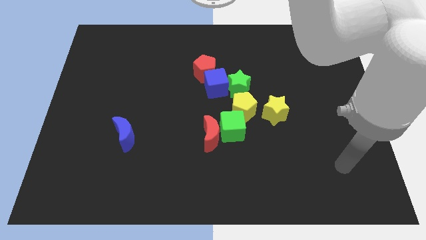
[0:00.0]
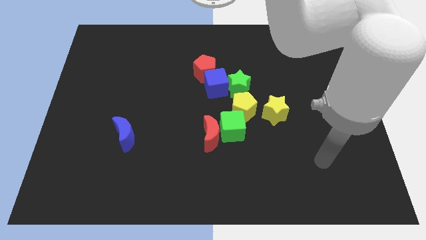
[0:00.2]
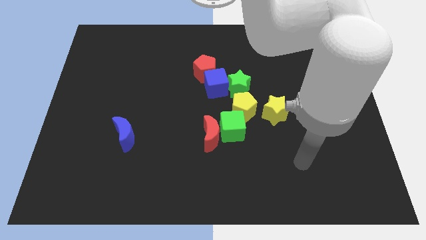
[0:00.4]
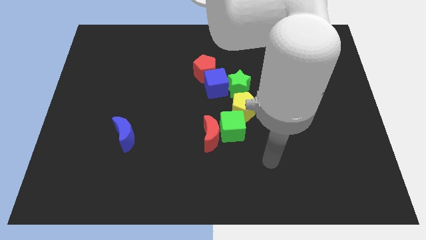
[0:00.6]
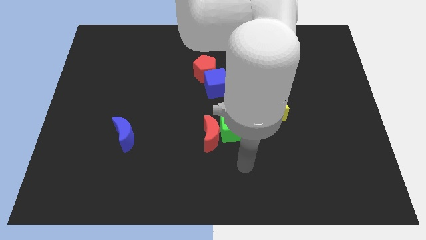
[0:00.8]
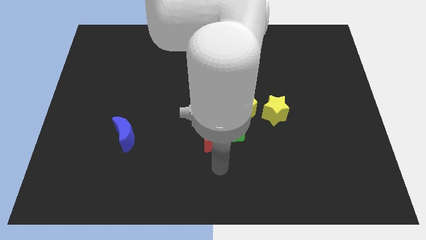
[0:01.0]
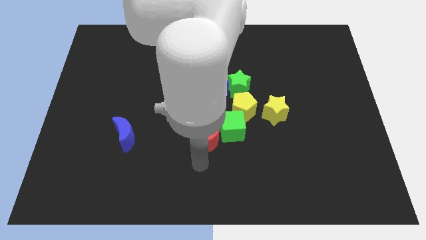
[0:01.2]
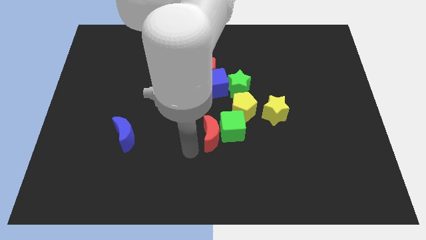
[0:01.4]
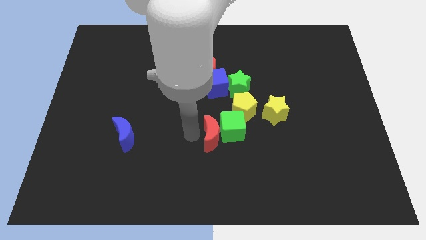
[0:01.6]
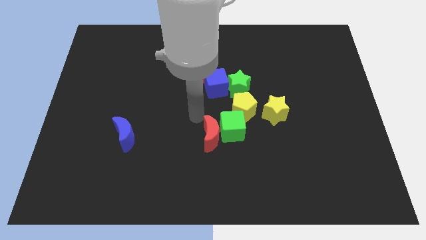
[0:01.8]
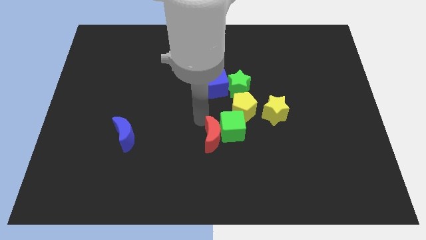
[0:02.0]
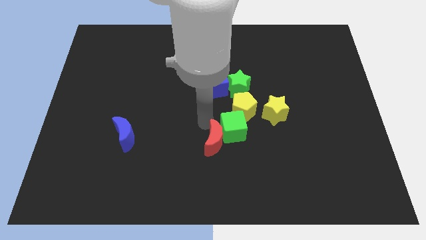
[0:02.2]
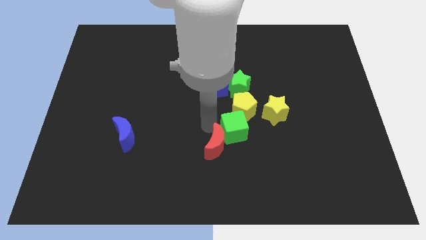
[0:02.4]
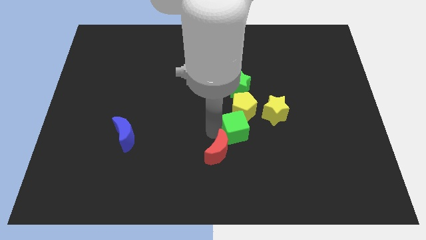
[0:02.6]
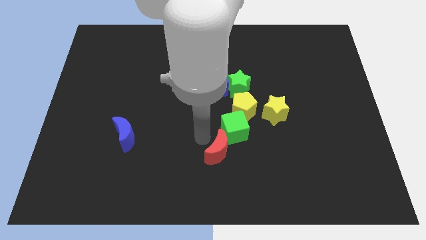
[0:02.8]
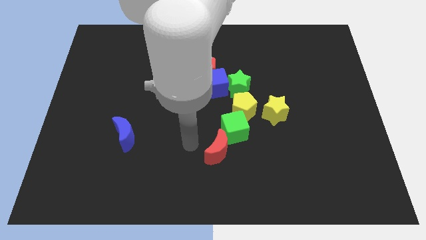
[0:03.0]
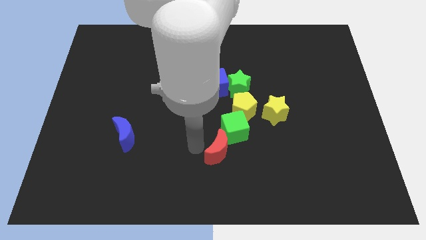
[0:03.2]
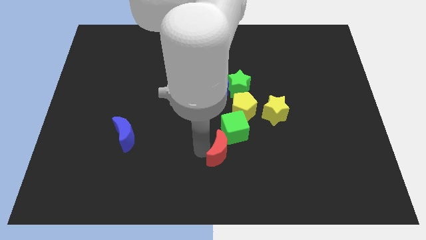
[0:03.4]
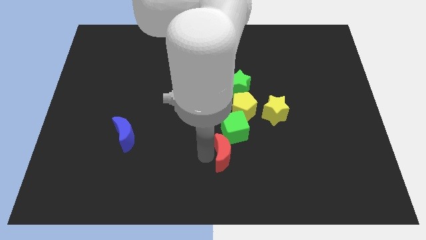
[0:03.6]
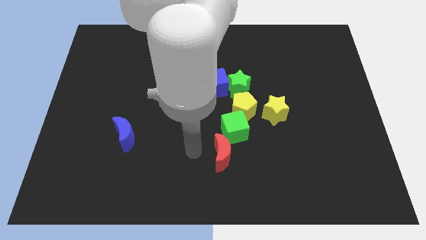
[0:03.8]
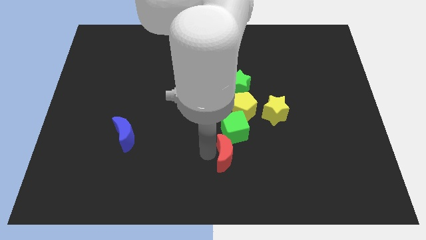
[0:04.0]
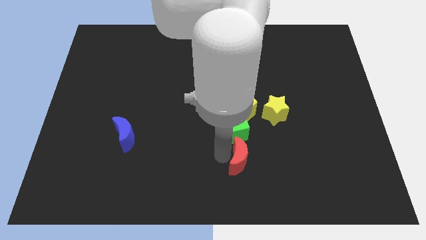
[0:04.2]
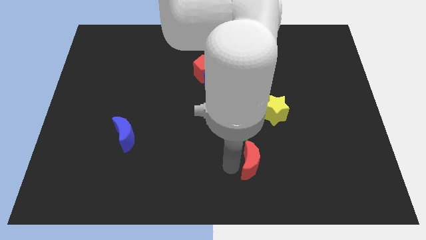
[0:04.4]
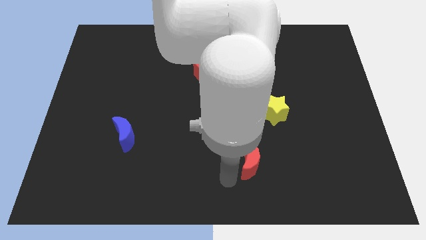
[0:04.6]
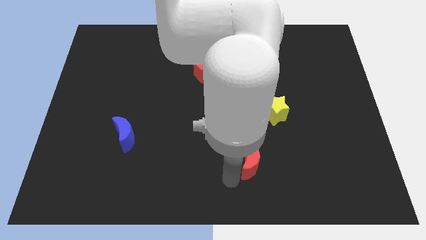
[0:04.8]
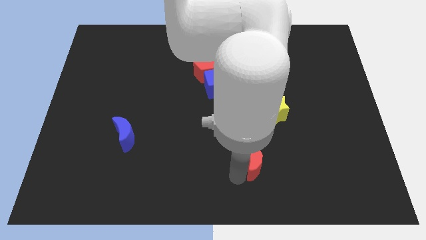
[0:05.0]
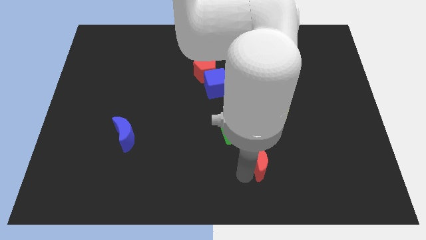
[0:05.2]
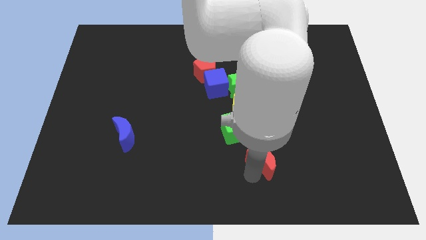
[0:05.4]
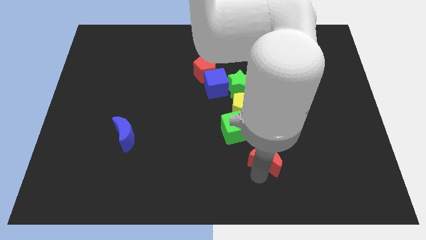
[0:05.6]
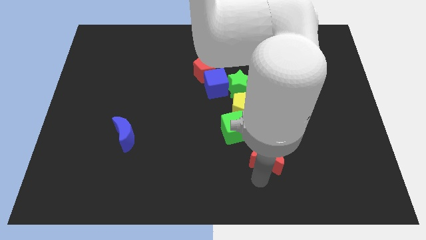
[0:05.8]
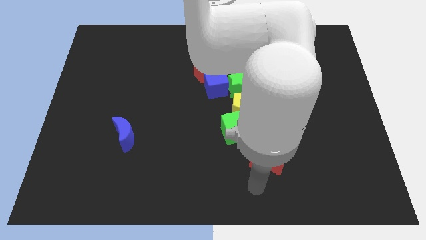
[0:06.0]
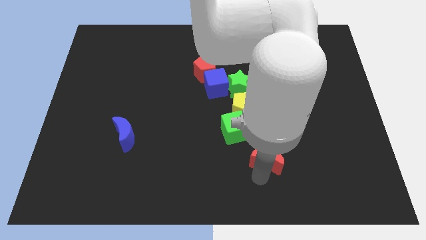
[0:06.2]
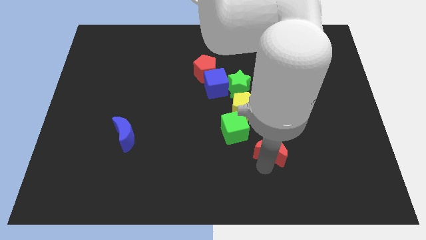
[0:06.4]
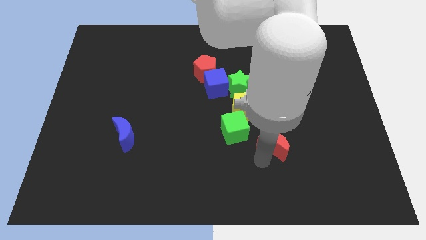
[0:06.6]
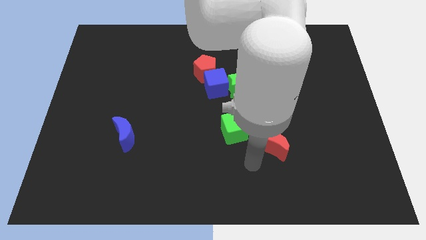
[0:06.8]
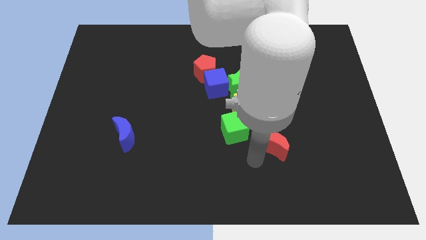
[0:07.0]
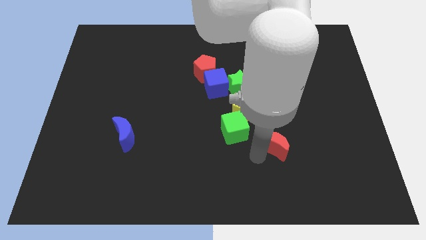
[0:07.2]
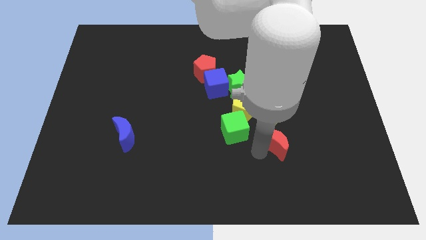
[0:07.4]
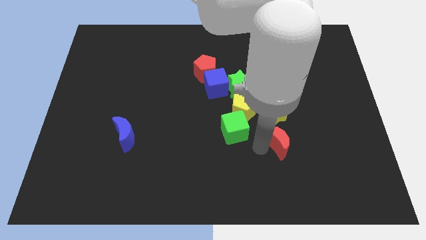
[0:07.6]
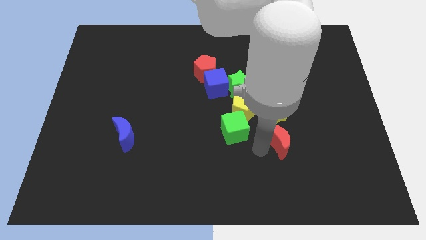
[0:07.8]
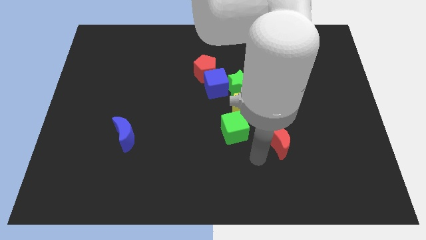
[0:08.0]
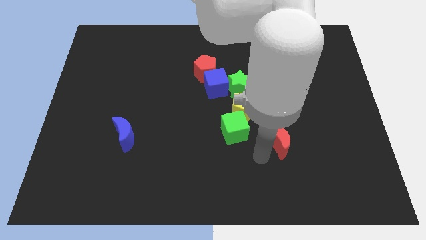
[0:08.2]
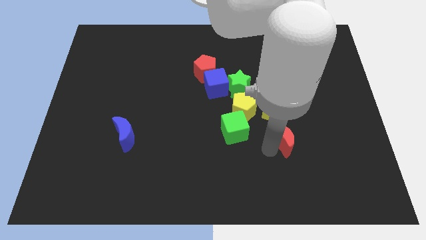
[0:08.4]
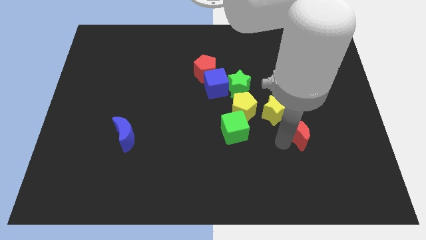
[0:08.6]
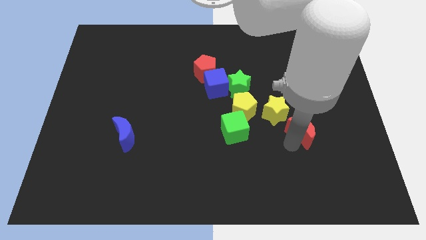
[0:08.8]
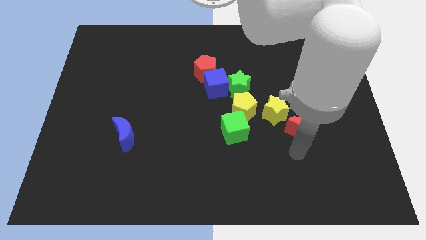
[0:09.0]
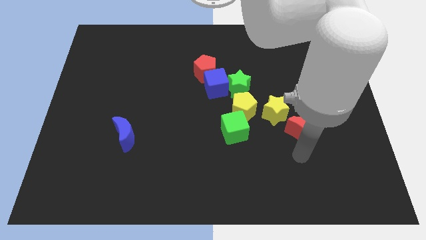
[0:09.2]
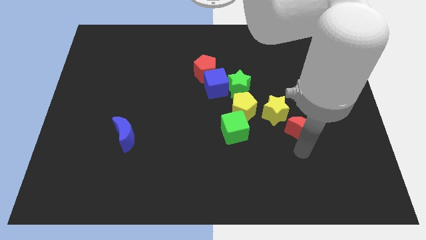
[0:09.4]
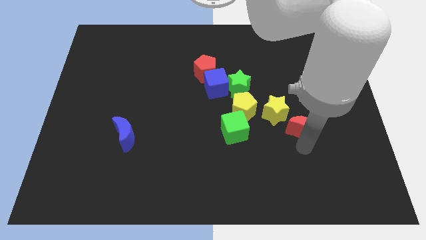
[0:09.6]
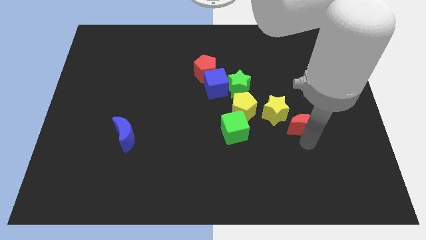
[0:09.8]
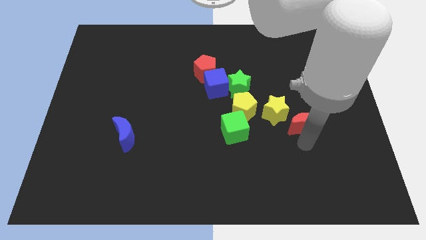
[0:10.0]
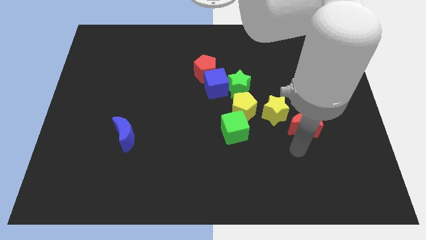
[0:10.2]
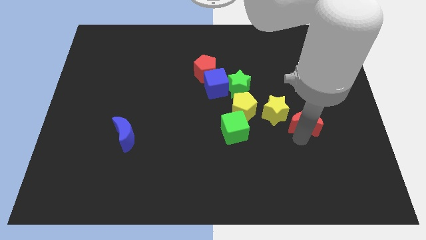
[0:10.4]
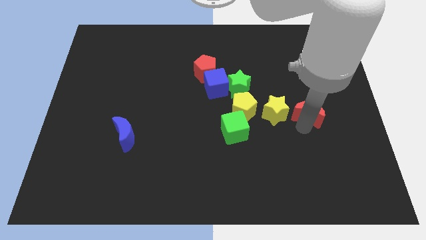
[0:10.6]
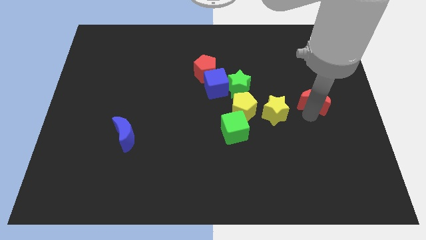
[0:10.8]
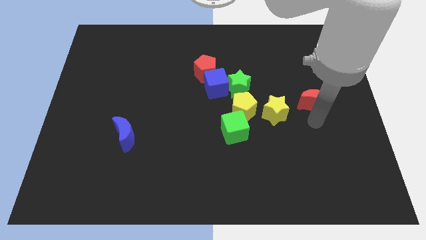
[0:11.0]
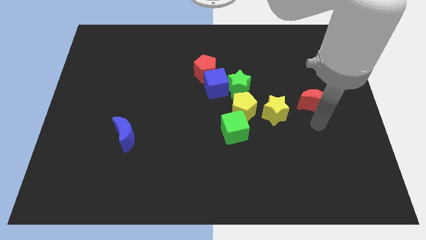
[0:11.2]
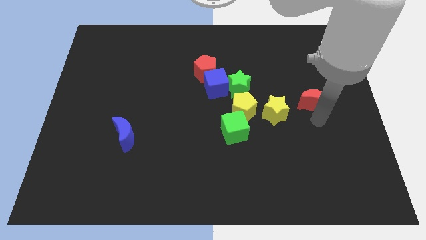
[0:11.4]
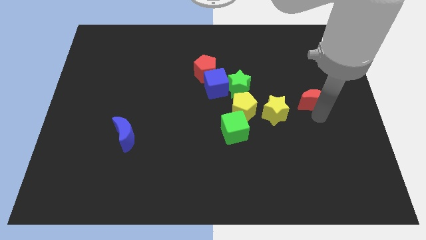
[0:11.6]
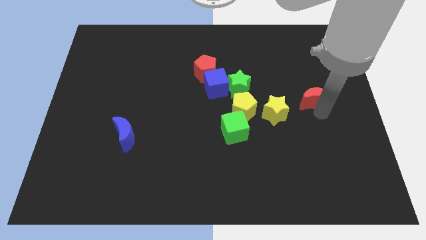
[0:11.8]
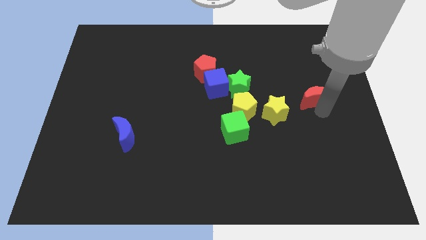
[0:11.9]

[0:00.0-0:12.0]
push the red moon up and right

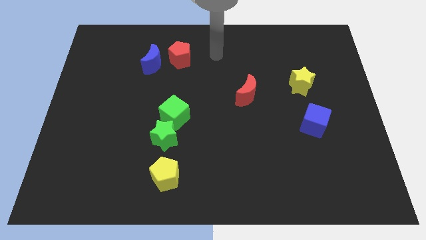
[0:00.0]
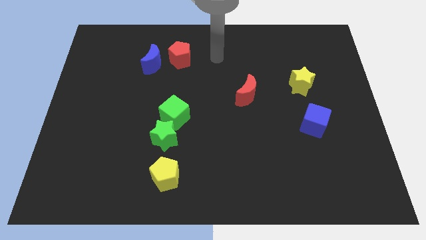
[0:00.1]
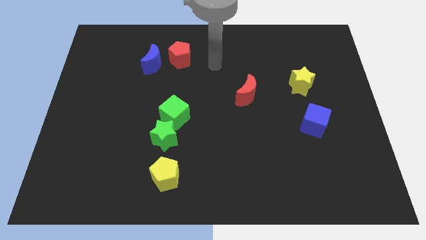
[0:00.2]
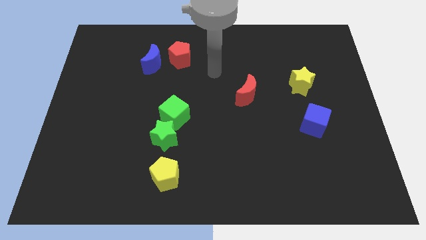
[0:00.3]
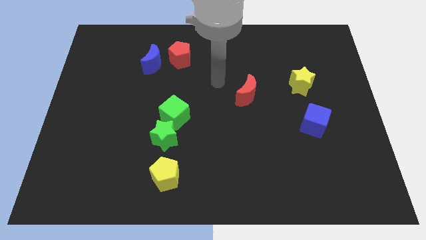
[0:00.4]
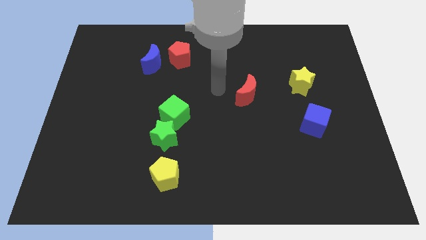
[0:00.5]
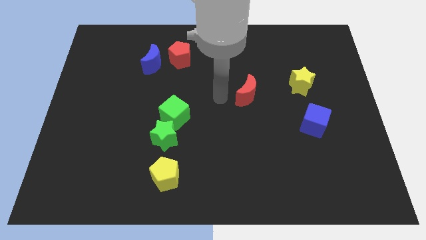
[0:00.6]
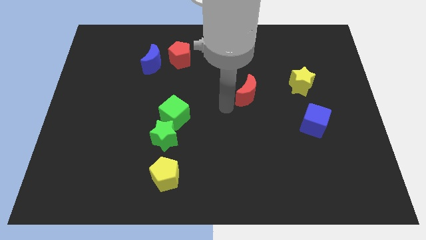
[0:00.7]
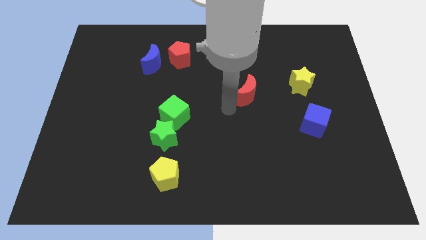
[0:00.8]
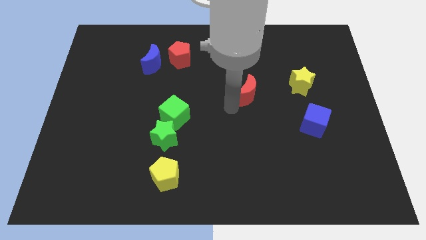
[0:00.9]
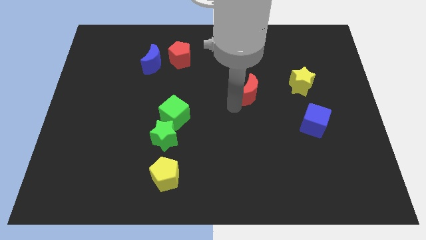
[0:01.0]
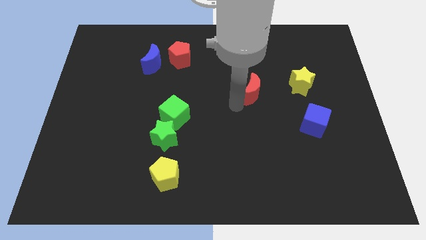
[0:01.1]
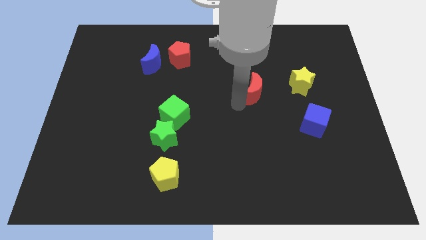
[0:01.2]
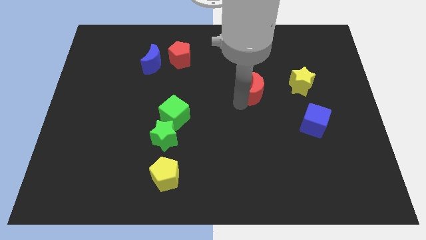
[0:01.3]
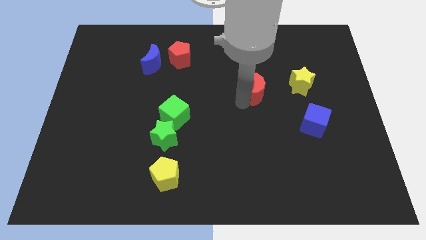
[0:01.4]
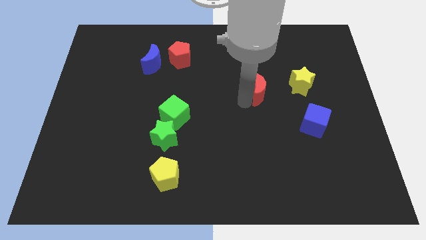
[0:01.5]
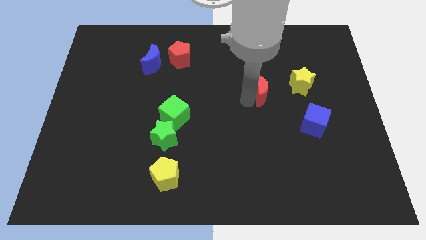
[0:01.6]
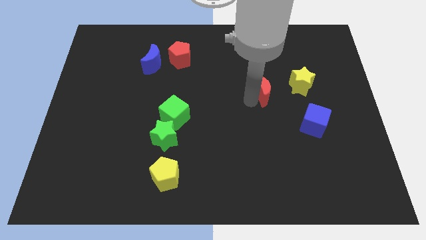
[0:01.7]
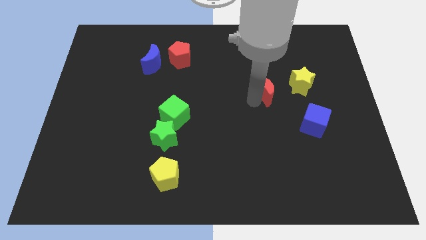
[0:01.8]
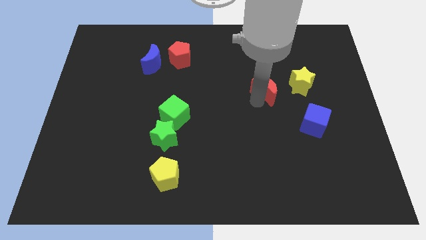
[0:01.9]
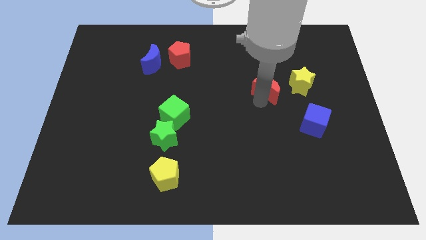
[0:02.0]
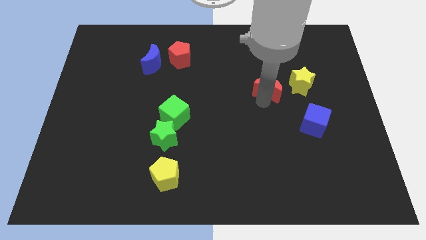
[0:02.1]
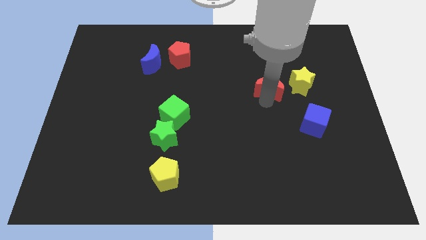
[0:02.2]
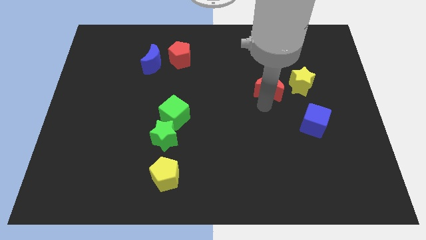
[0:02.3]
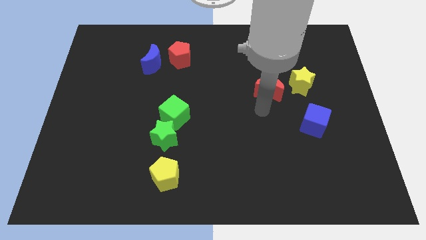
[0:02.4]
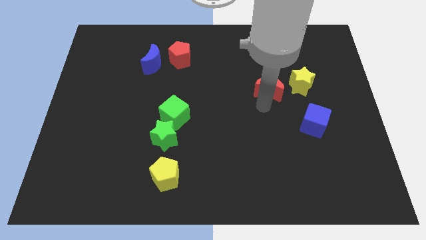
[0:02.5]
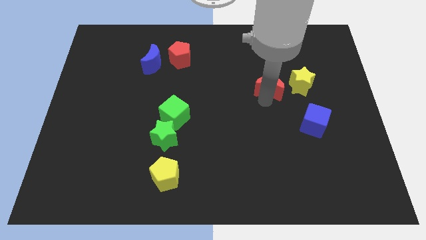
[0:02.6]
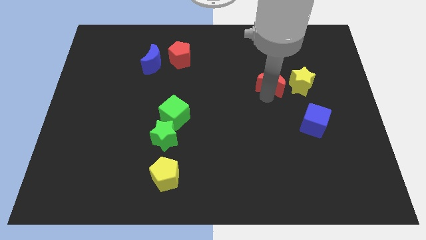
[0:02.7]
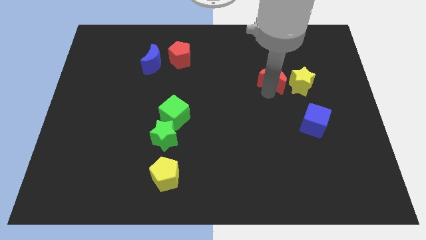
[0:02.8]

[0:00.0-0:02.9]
push the red moon a bit up and to the right
